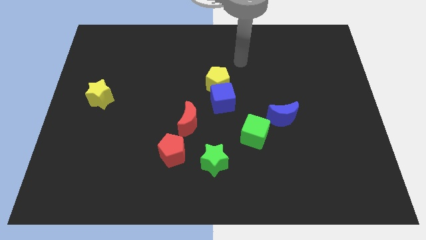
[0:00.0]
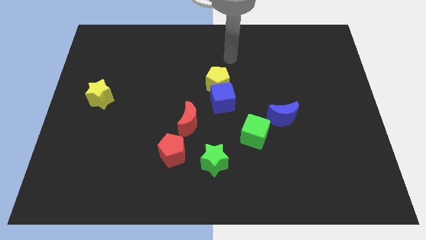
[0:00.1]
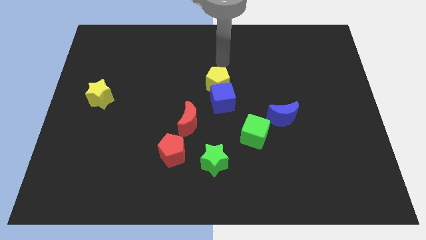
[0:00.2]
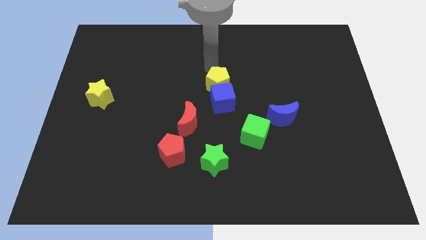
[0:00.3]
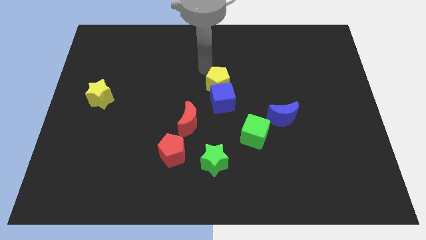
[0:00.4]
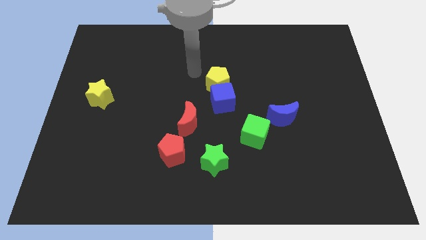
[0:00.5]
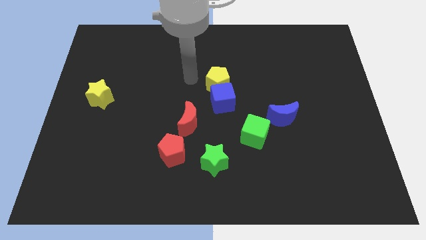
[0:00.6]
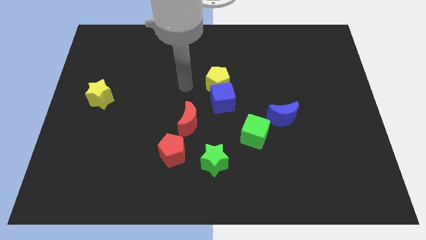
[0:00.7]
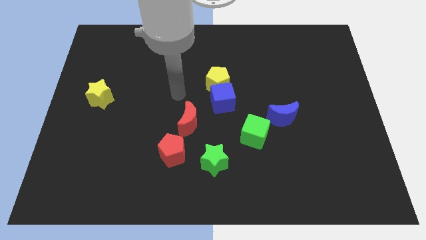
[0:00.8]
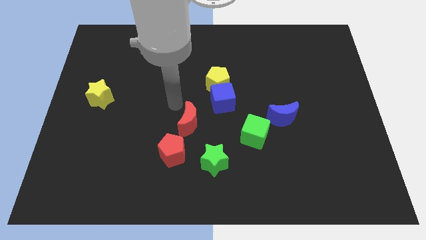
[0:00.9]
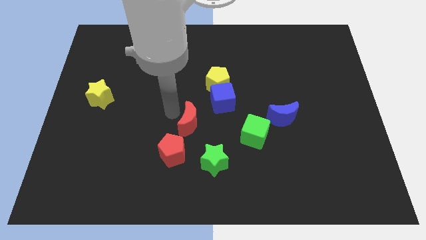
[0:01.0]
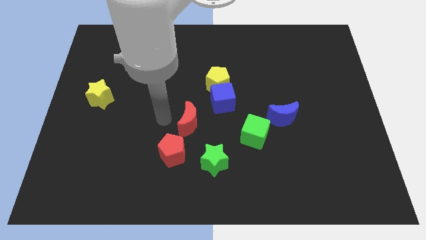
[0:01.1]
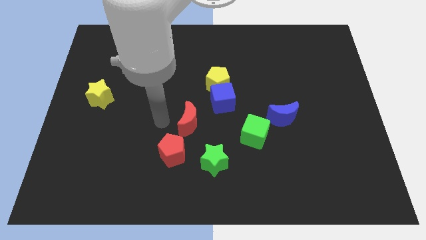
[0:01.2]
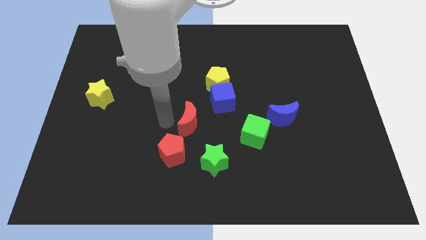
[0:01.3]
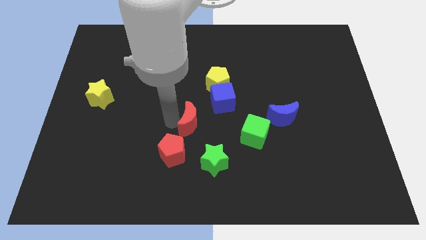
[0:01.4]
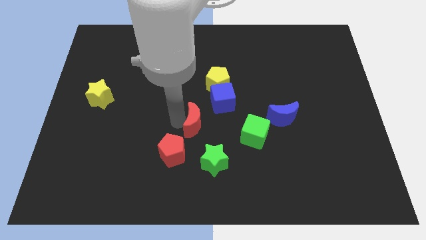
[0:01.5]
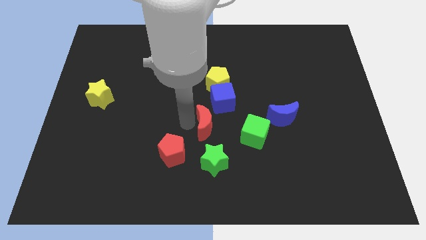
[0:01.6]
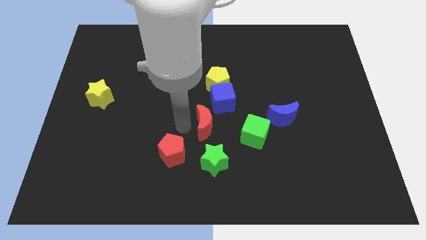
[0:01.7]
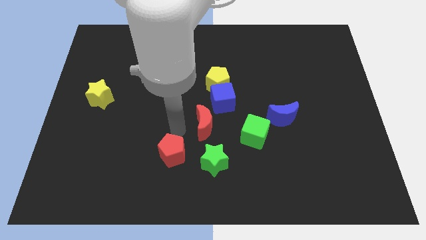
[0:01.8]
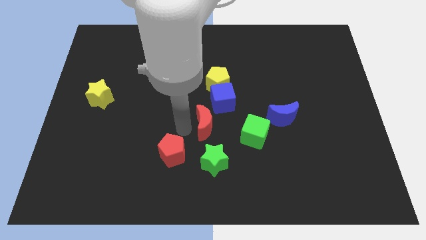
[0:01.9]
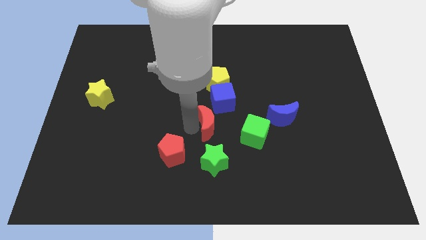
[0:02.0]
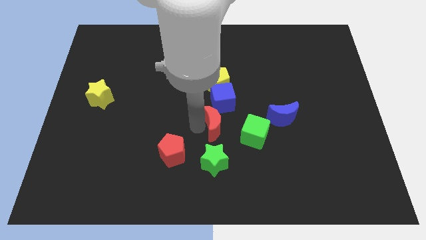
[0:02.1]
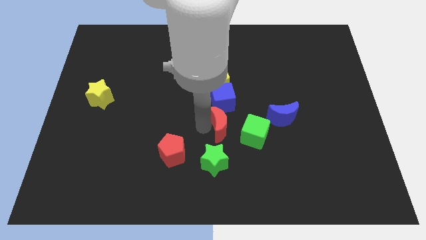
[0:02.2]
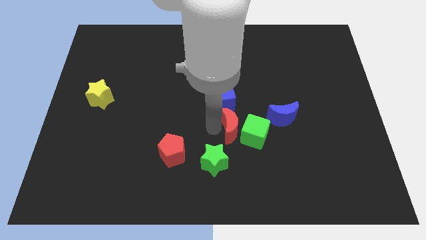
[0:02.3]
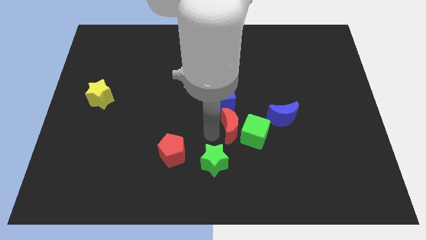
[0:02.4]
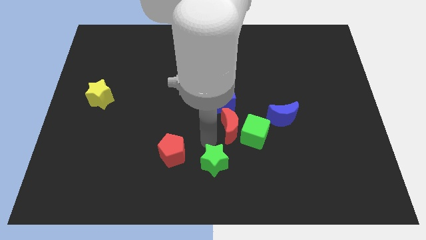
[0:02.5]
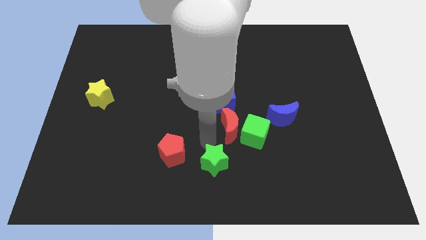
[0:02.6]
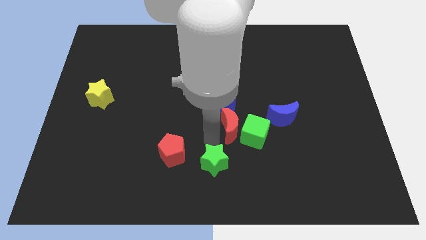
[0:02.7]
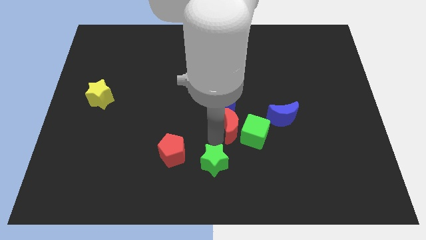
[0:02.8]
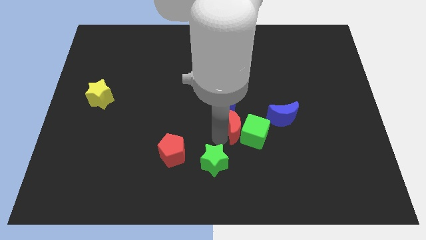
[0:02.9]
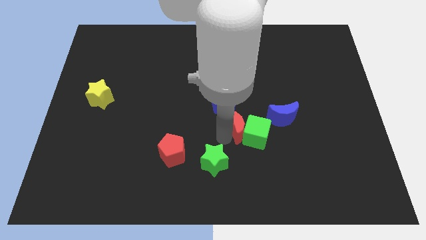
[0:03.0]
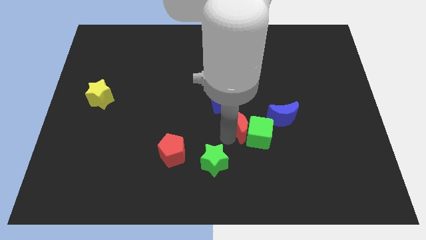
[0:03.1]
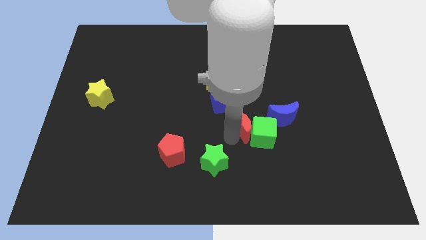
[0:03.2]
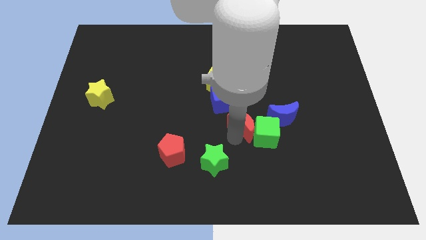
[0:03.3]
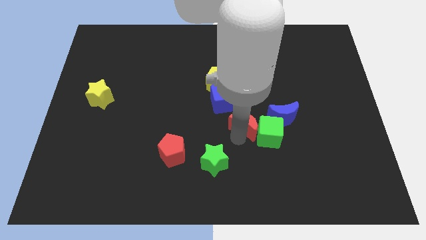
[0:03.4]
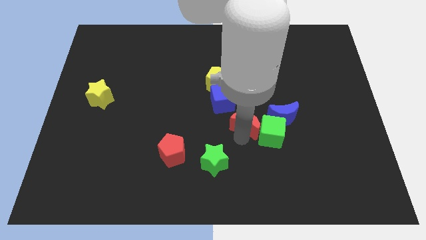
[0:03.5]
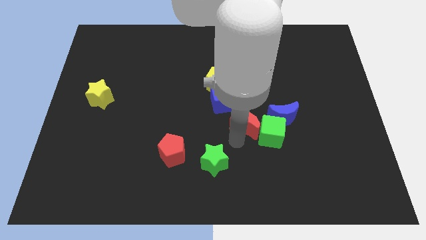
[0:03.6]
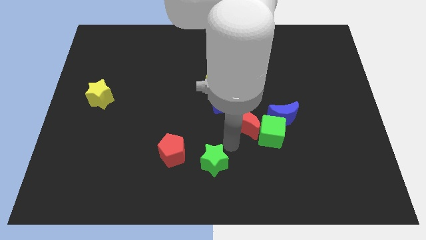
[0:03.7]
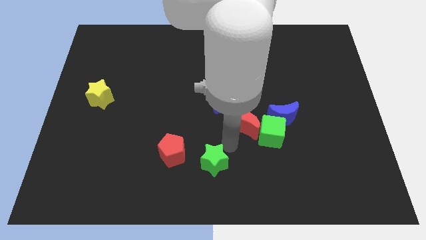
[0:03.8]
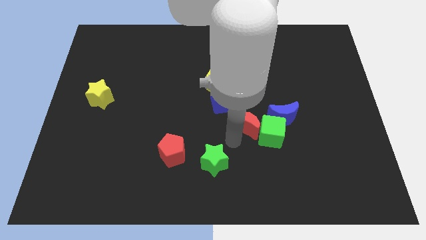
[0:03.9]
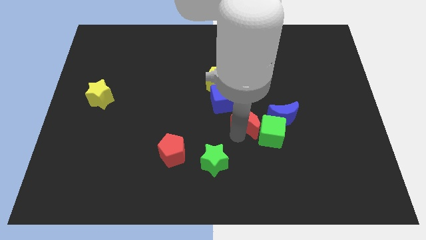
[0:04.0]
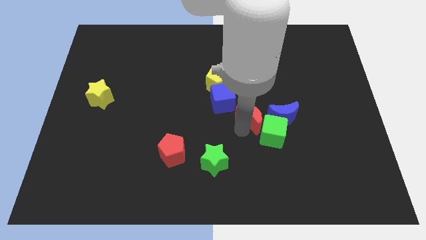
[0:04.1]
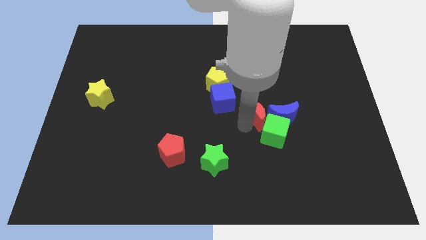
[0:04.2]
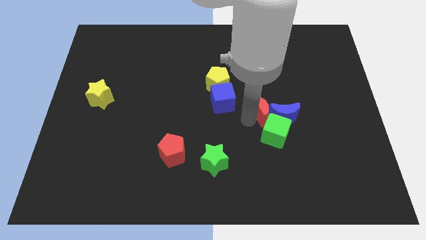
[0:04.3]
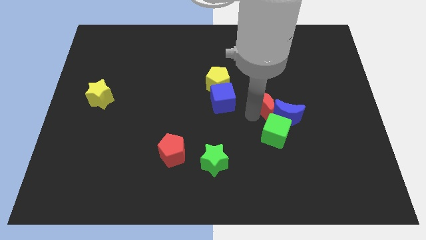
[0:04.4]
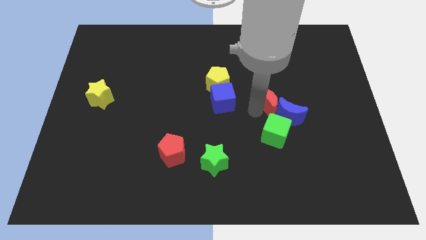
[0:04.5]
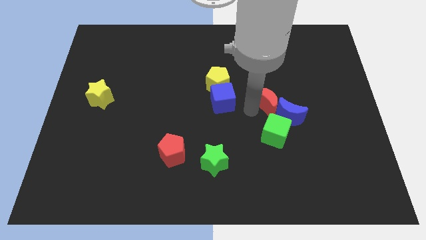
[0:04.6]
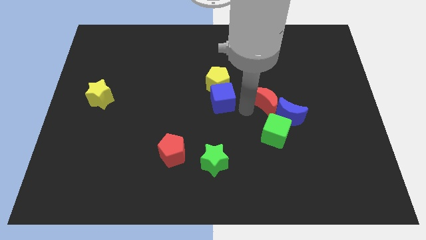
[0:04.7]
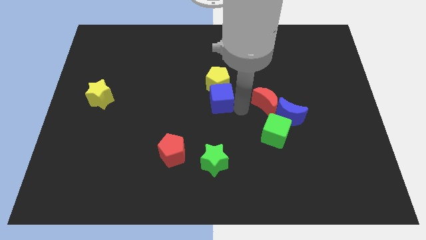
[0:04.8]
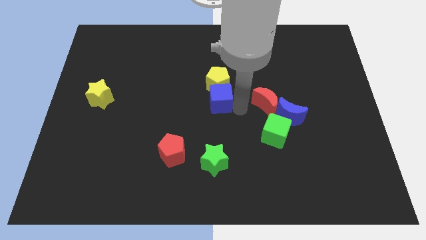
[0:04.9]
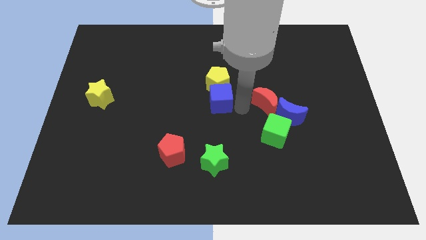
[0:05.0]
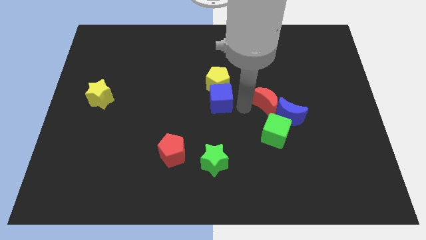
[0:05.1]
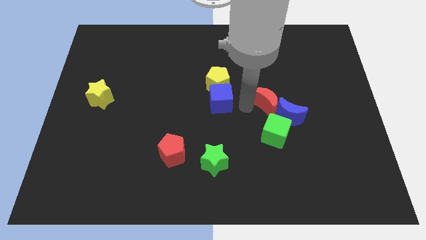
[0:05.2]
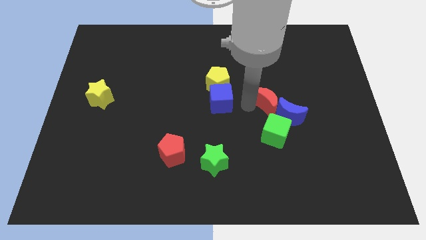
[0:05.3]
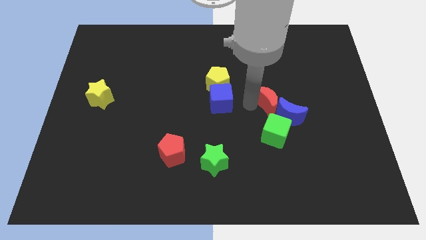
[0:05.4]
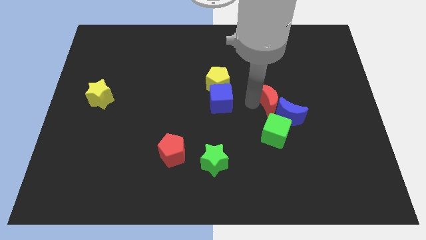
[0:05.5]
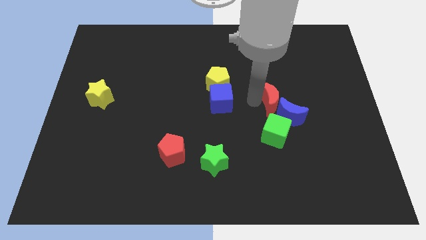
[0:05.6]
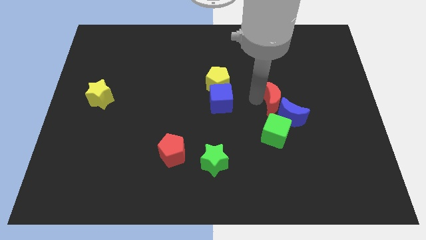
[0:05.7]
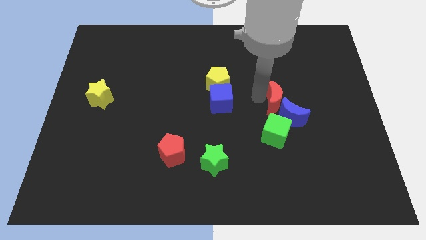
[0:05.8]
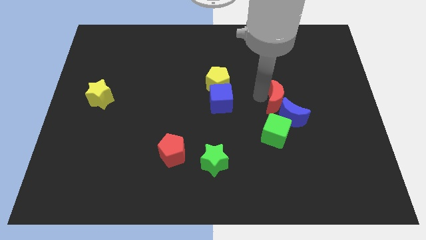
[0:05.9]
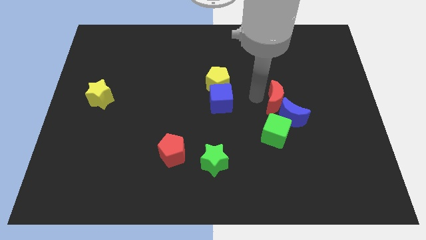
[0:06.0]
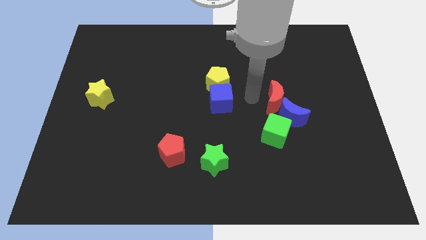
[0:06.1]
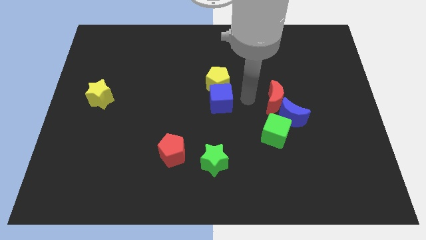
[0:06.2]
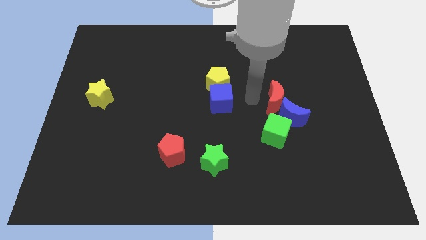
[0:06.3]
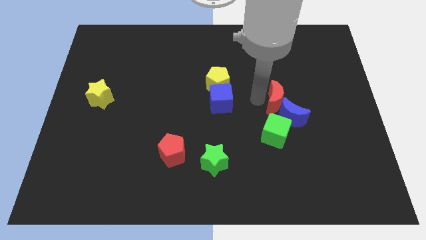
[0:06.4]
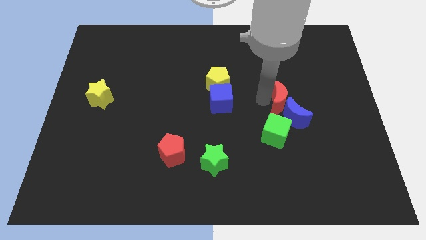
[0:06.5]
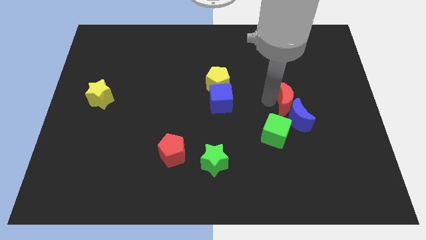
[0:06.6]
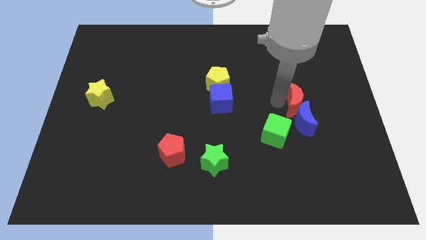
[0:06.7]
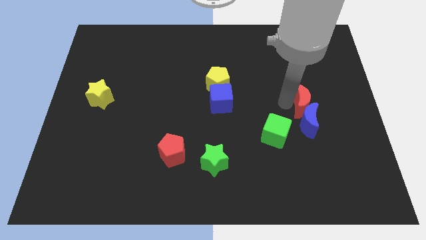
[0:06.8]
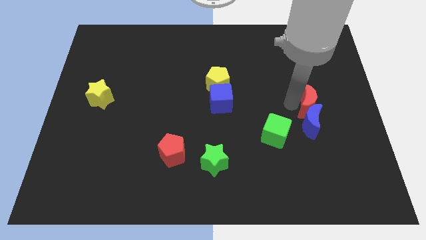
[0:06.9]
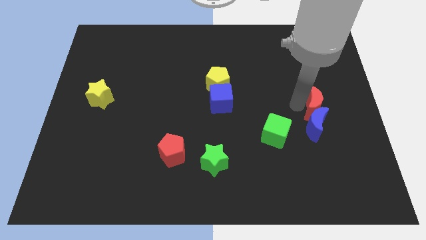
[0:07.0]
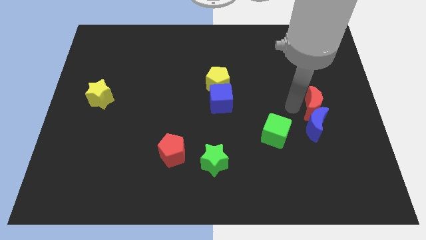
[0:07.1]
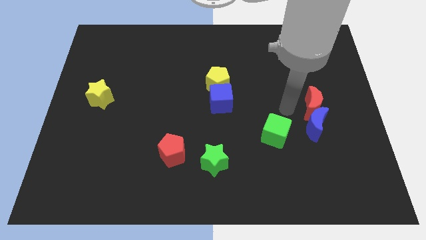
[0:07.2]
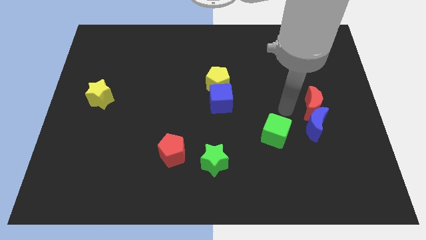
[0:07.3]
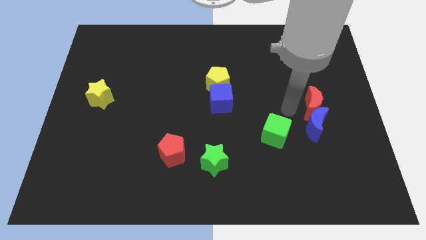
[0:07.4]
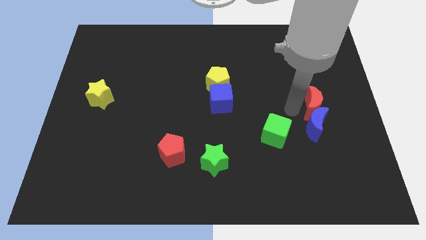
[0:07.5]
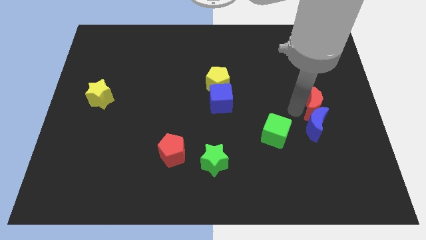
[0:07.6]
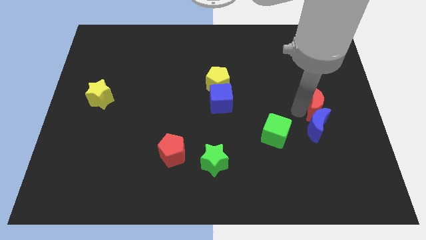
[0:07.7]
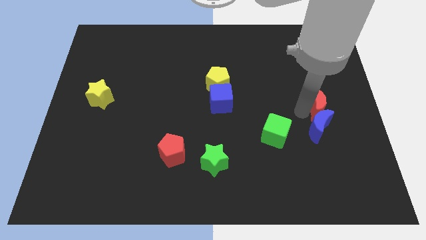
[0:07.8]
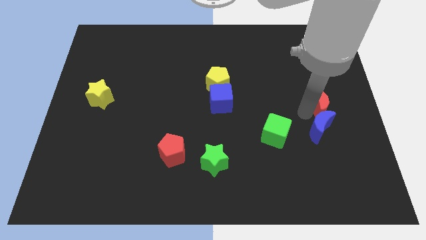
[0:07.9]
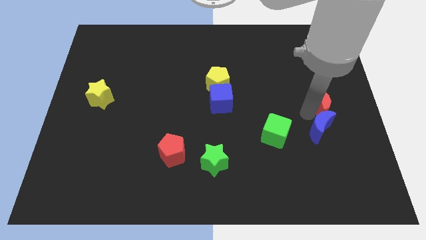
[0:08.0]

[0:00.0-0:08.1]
slide the red moon to the center right
